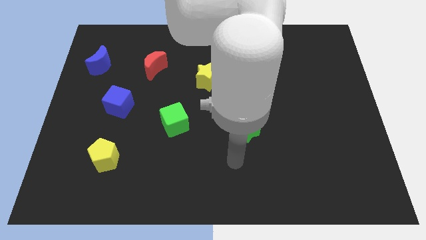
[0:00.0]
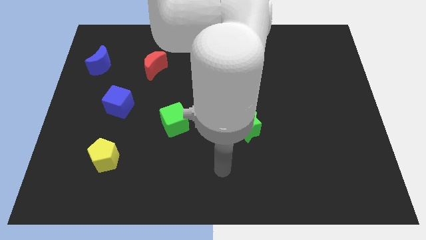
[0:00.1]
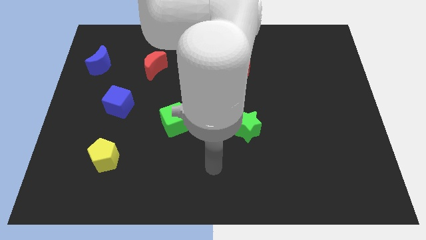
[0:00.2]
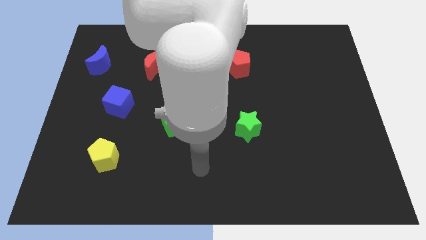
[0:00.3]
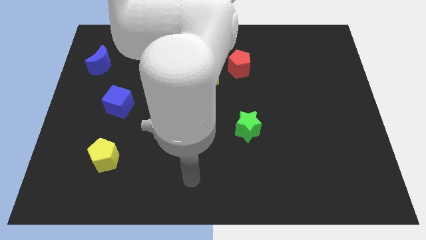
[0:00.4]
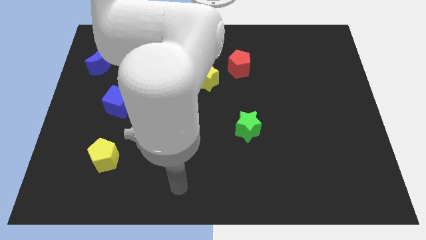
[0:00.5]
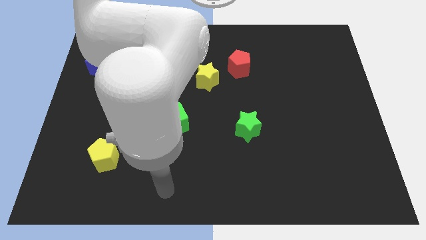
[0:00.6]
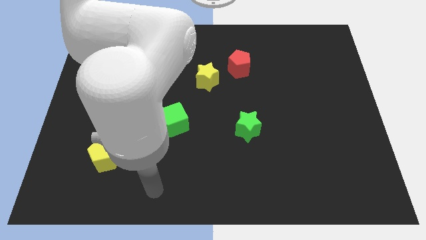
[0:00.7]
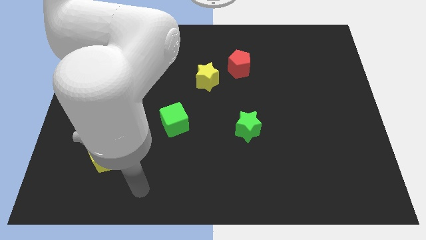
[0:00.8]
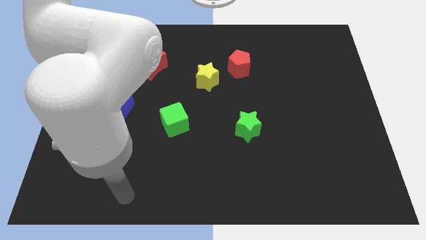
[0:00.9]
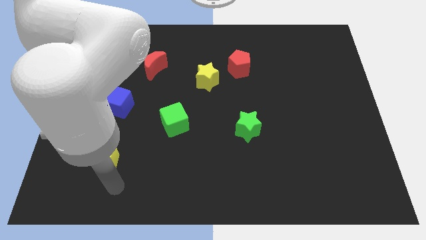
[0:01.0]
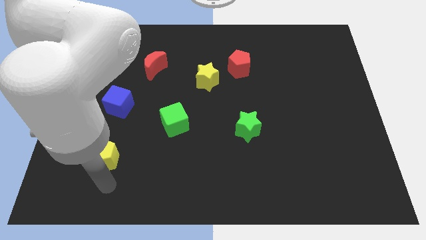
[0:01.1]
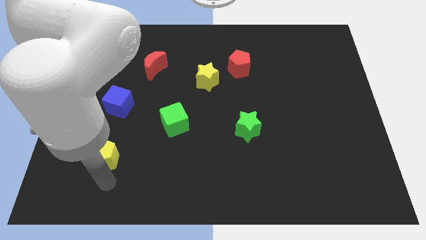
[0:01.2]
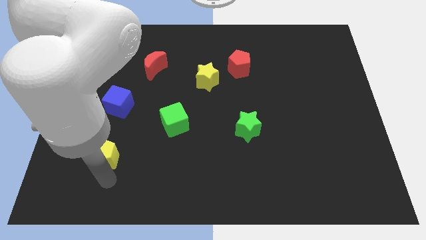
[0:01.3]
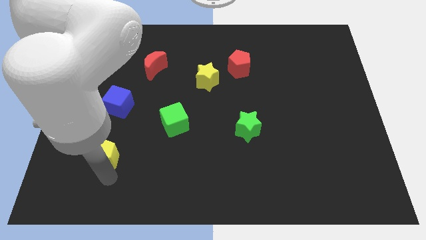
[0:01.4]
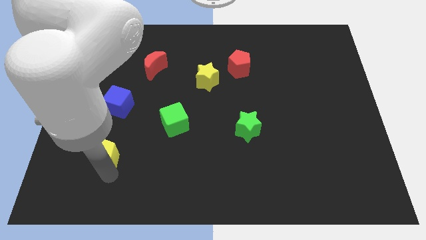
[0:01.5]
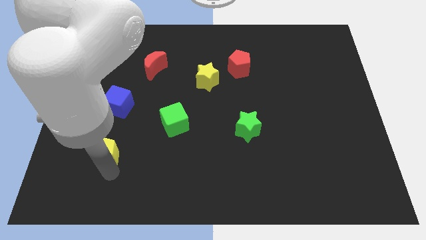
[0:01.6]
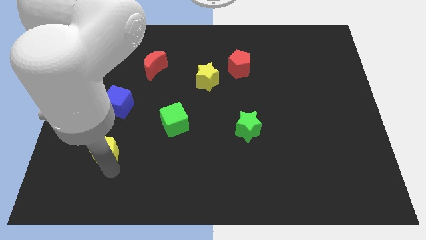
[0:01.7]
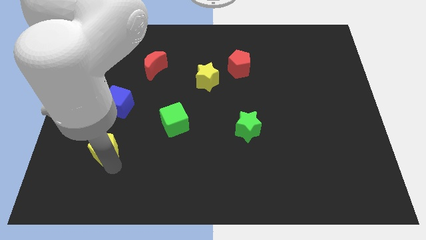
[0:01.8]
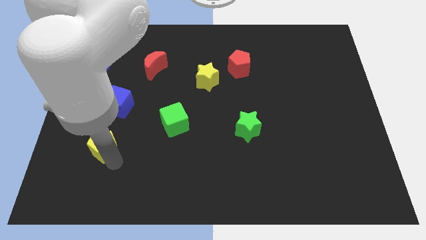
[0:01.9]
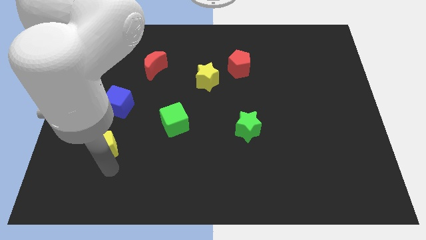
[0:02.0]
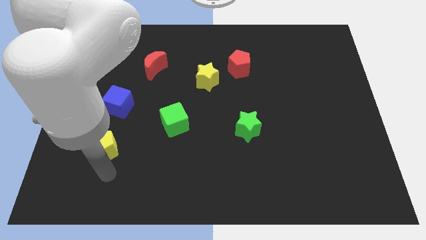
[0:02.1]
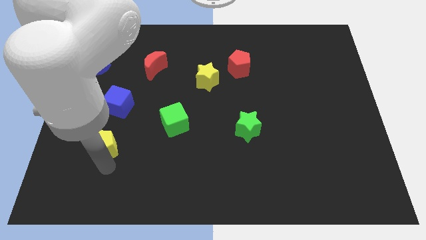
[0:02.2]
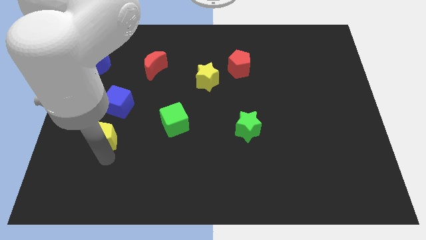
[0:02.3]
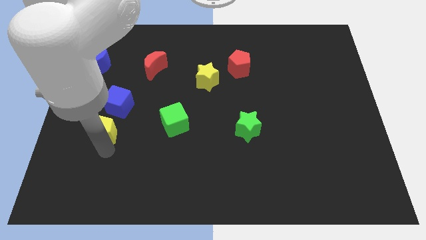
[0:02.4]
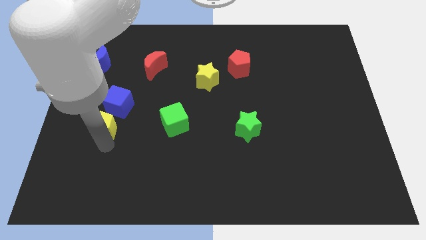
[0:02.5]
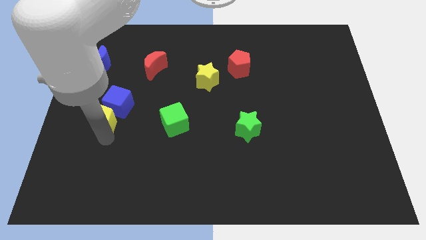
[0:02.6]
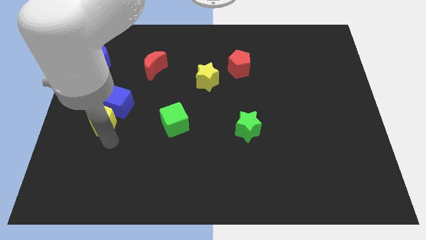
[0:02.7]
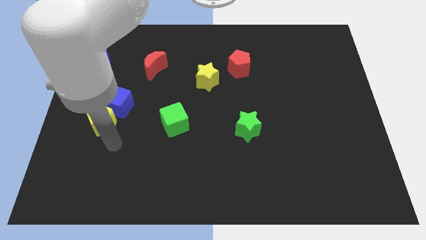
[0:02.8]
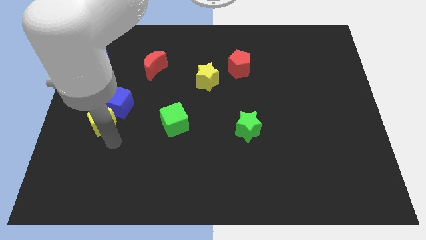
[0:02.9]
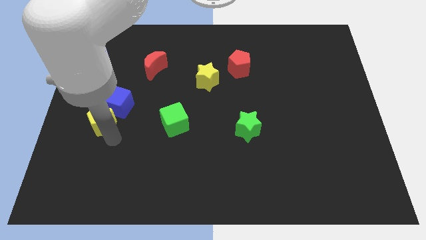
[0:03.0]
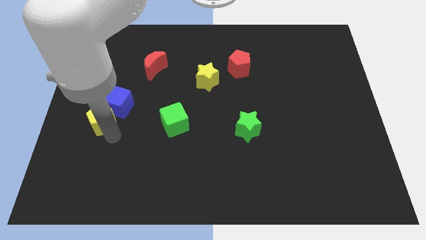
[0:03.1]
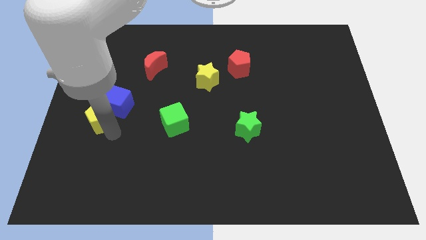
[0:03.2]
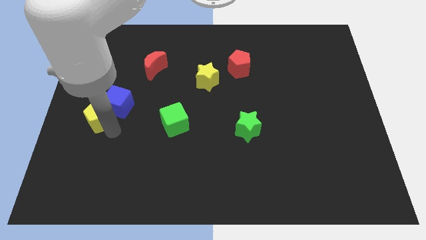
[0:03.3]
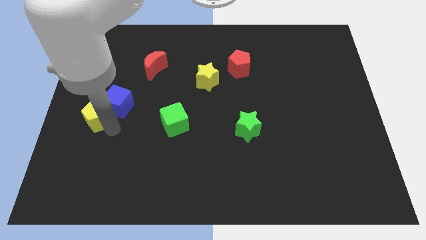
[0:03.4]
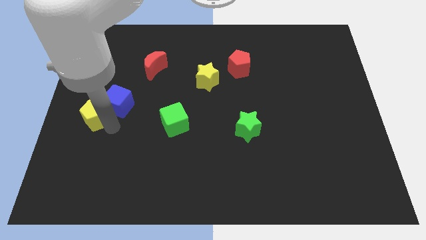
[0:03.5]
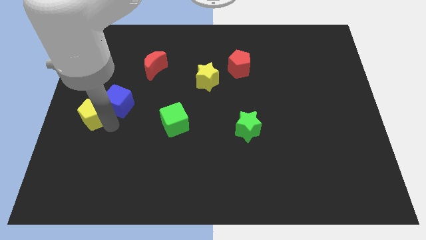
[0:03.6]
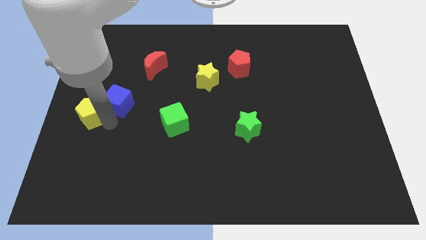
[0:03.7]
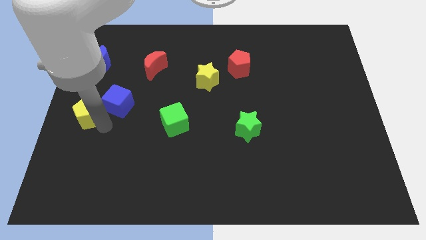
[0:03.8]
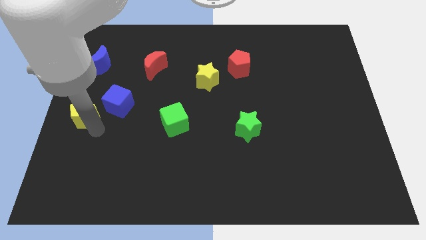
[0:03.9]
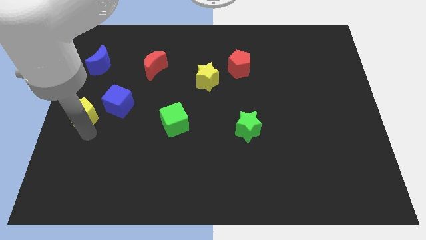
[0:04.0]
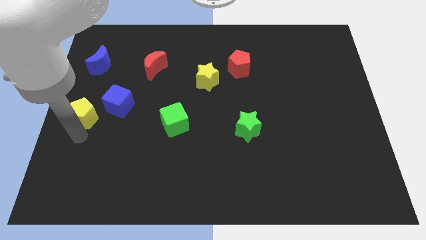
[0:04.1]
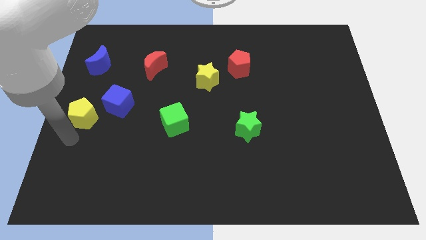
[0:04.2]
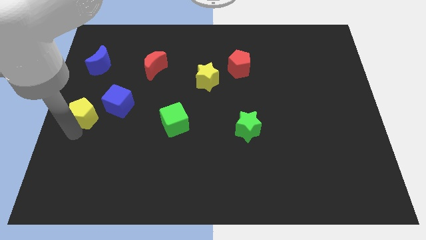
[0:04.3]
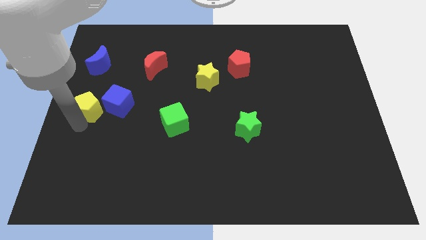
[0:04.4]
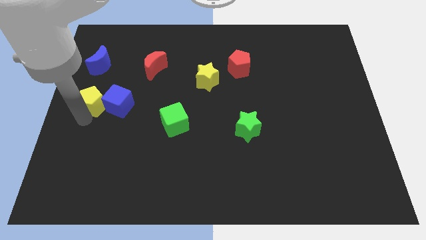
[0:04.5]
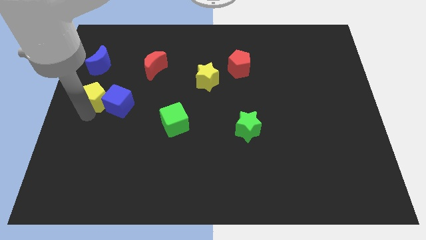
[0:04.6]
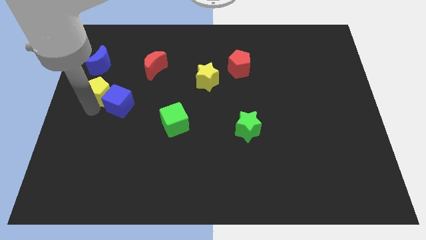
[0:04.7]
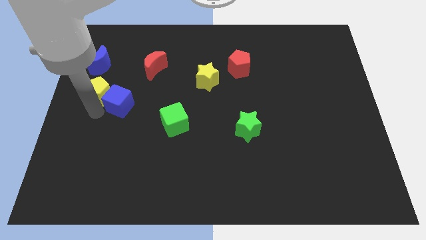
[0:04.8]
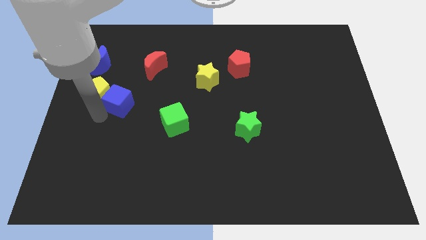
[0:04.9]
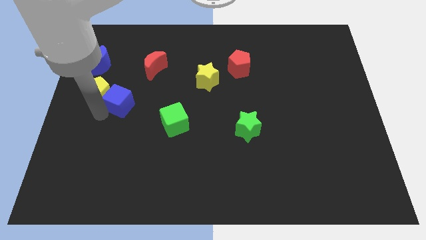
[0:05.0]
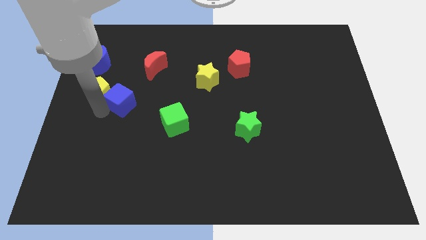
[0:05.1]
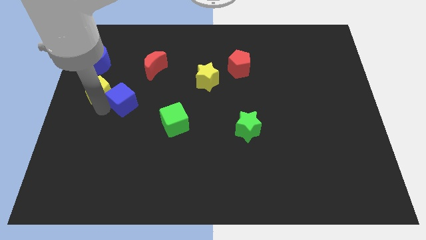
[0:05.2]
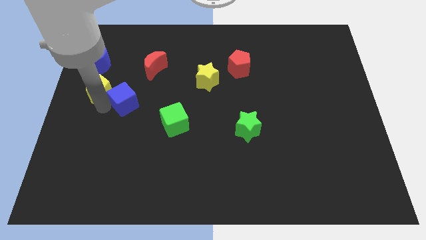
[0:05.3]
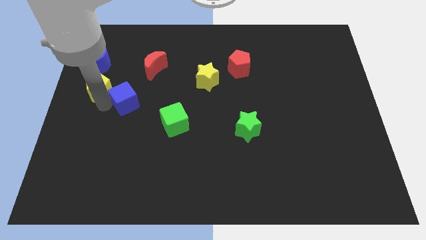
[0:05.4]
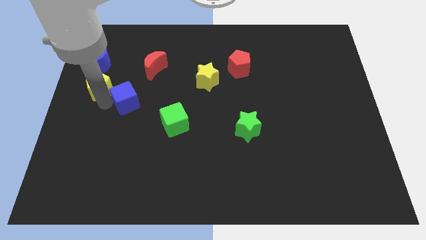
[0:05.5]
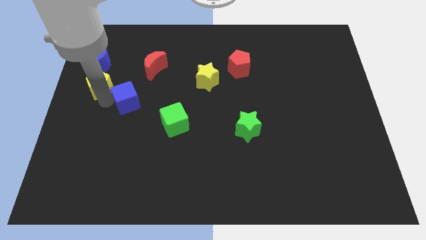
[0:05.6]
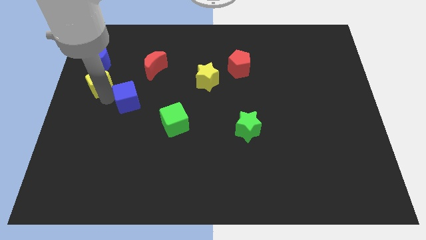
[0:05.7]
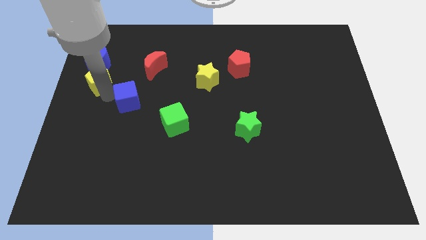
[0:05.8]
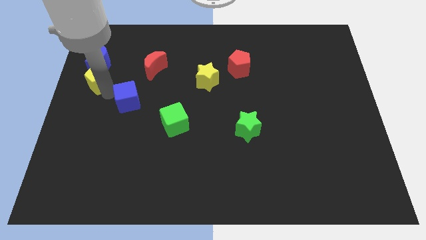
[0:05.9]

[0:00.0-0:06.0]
push the yellow pentagon next to the blue moon

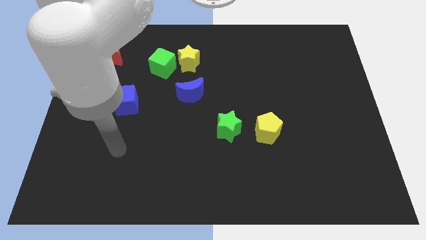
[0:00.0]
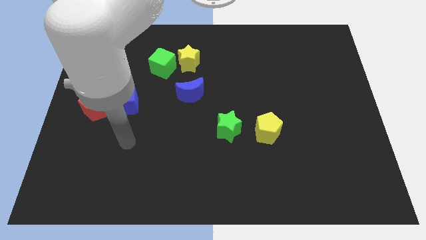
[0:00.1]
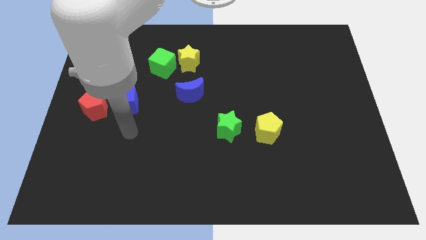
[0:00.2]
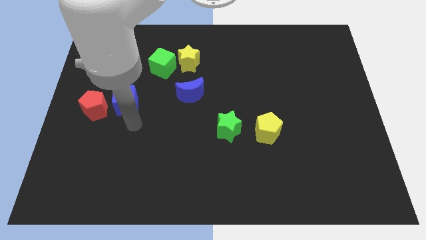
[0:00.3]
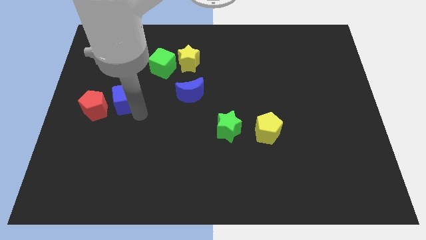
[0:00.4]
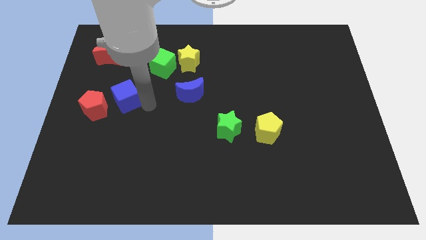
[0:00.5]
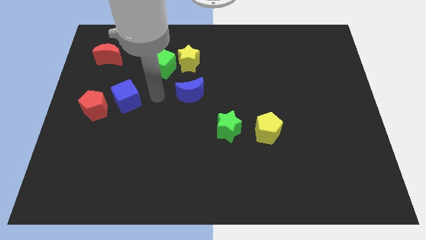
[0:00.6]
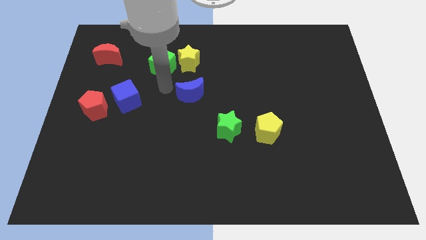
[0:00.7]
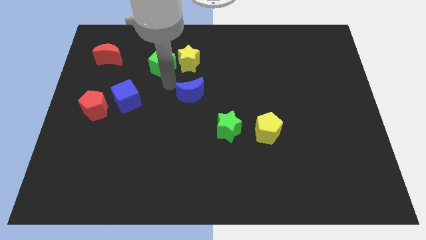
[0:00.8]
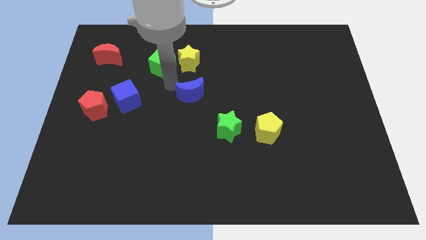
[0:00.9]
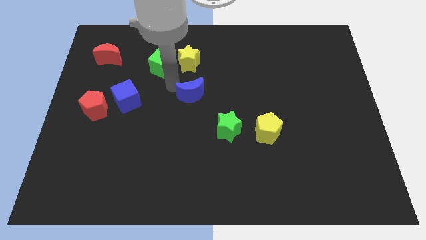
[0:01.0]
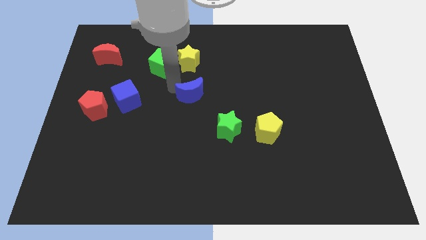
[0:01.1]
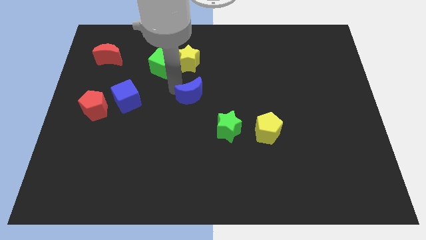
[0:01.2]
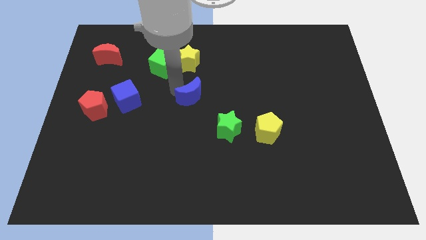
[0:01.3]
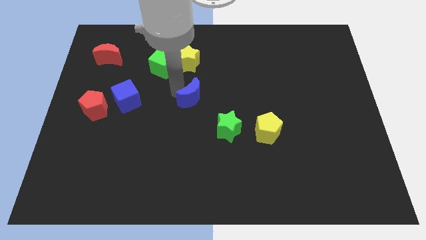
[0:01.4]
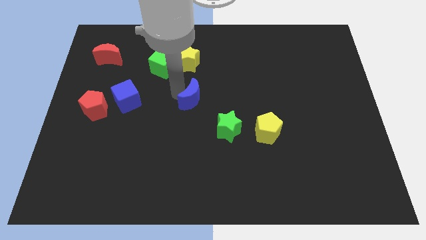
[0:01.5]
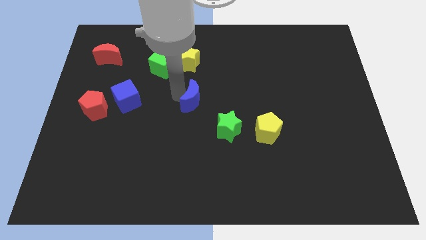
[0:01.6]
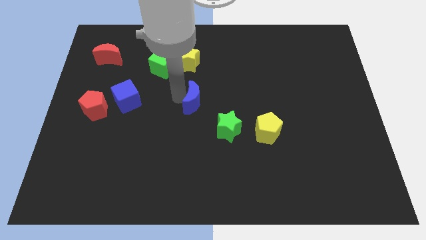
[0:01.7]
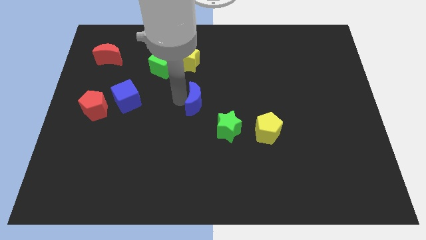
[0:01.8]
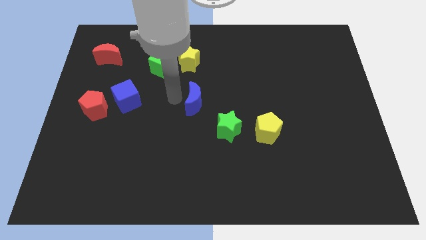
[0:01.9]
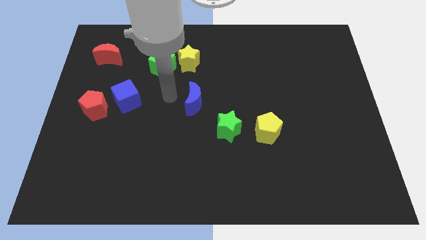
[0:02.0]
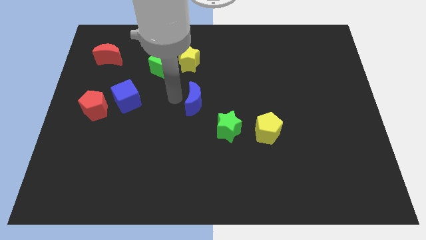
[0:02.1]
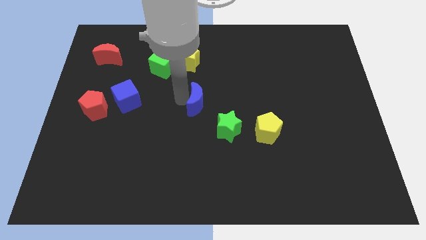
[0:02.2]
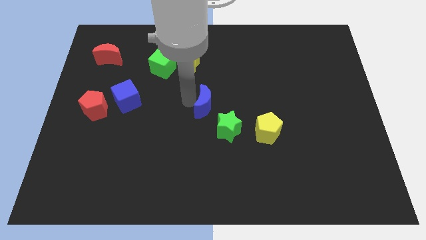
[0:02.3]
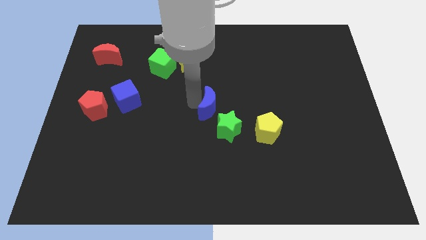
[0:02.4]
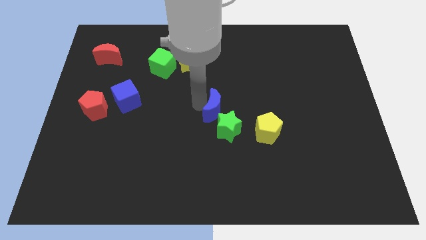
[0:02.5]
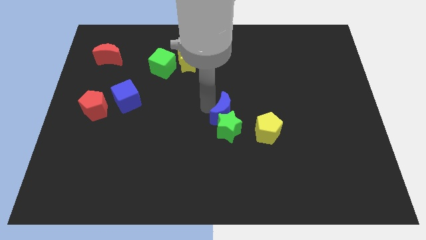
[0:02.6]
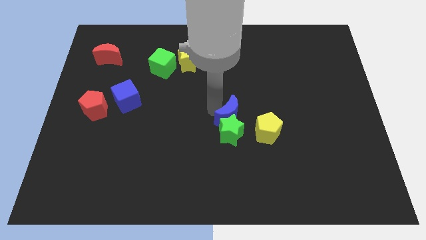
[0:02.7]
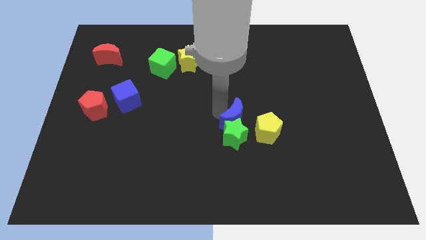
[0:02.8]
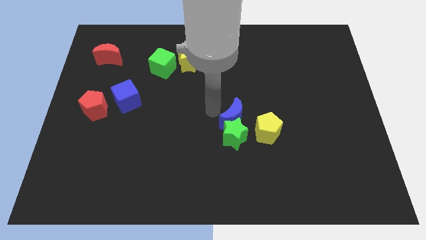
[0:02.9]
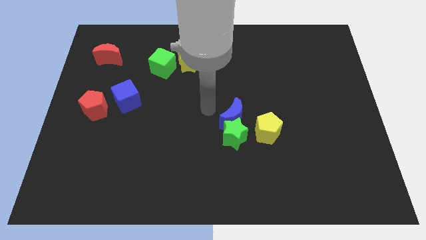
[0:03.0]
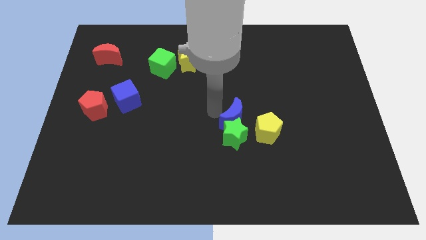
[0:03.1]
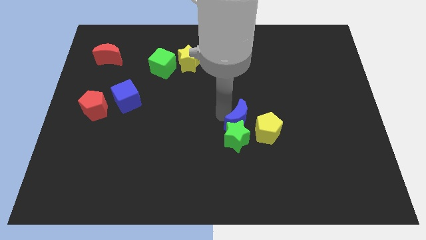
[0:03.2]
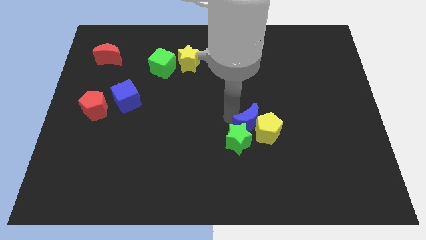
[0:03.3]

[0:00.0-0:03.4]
put the blue moon close to the yellow pentagon
